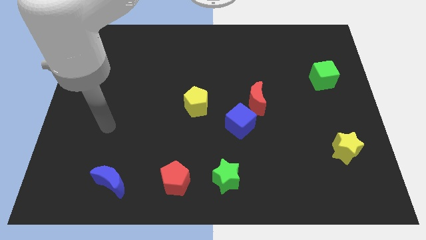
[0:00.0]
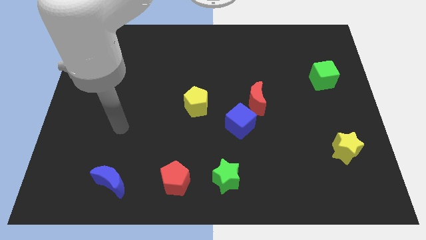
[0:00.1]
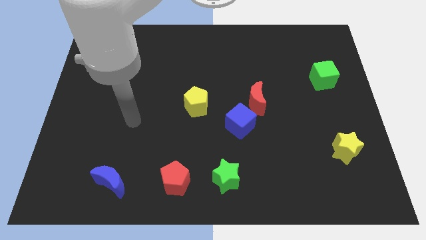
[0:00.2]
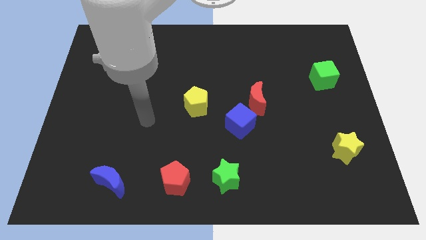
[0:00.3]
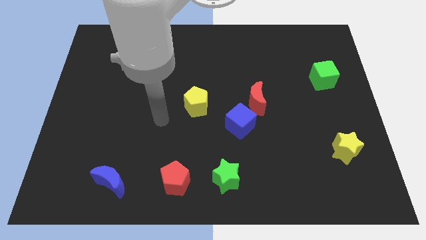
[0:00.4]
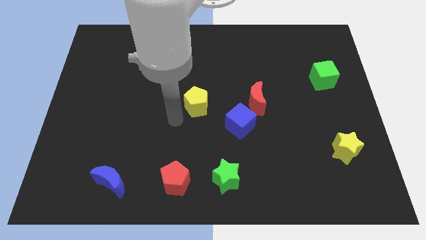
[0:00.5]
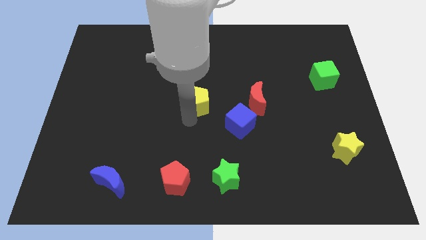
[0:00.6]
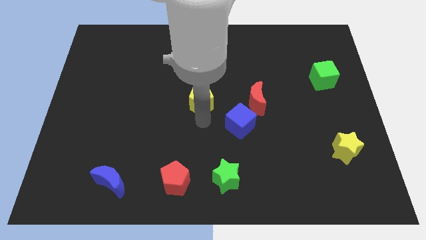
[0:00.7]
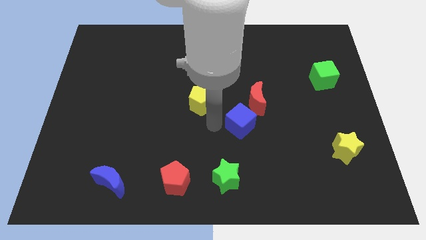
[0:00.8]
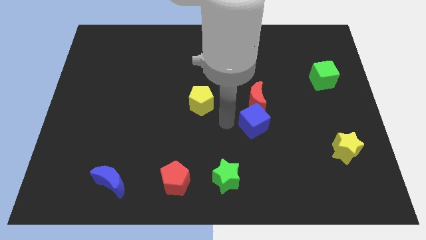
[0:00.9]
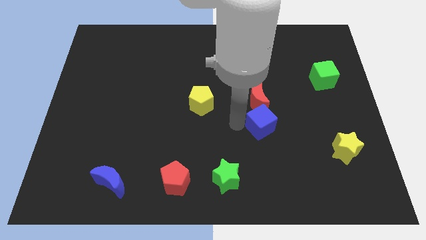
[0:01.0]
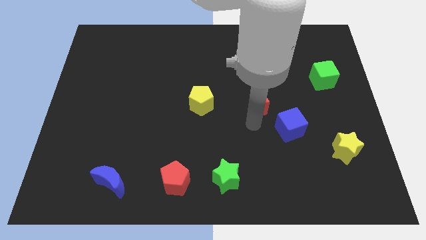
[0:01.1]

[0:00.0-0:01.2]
separate the red moon from the blue cube

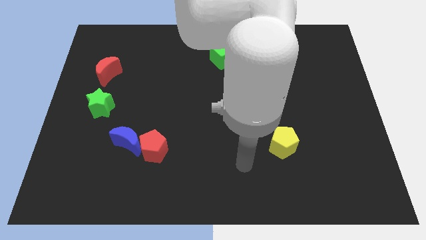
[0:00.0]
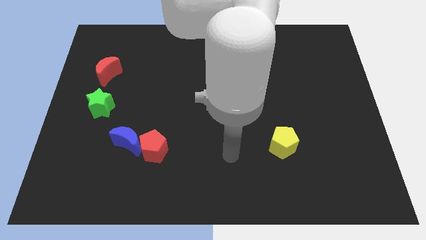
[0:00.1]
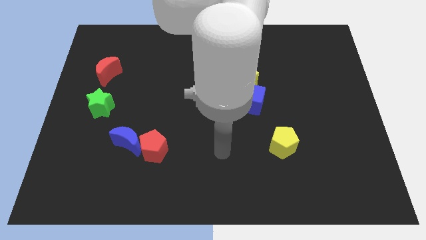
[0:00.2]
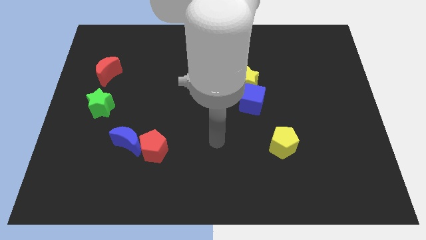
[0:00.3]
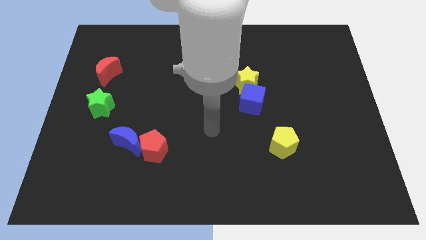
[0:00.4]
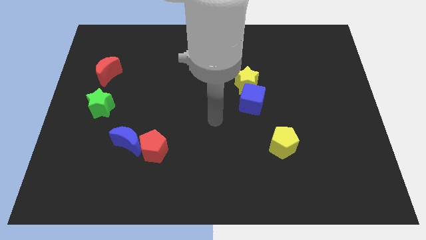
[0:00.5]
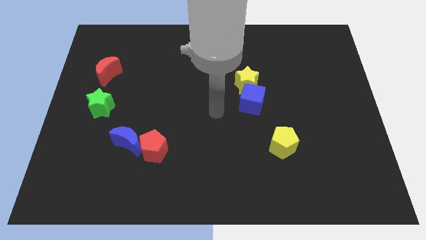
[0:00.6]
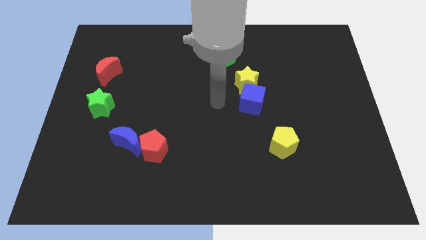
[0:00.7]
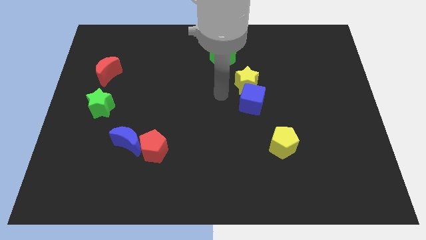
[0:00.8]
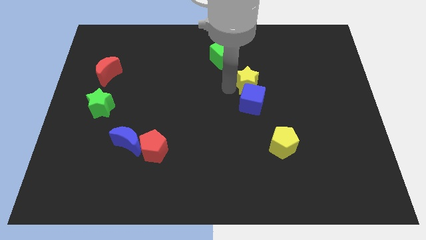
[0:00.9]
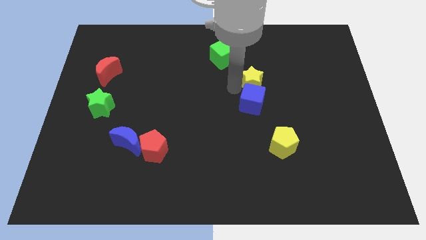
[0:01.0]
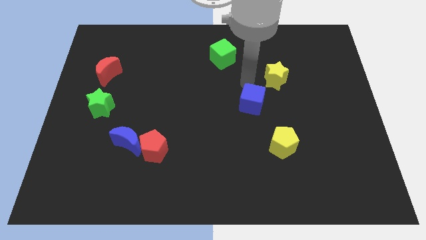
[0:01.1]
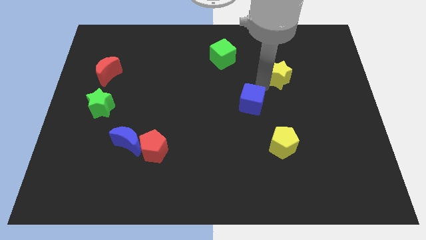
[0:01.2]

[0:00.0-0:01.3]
separate the blue cube from the yellow star

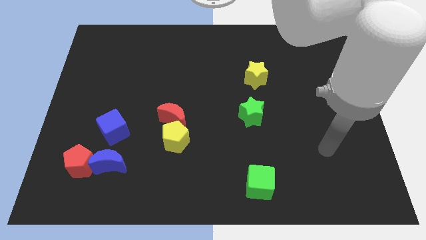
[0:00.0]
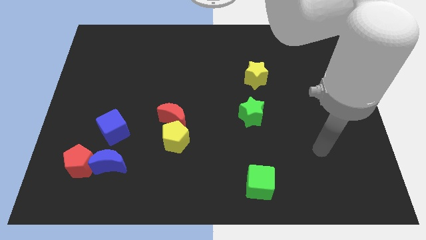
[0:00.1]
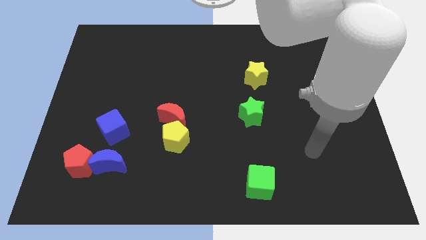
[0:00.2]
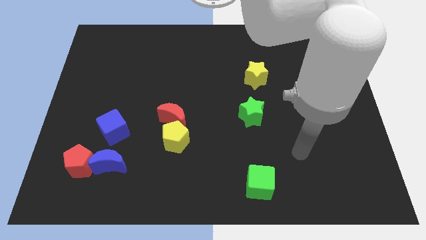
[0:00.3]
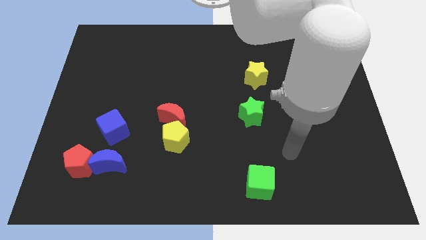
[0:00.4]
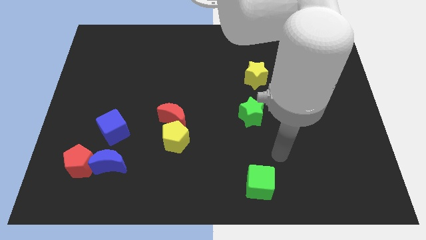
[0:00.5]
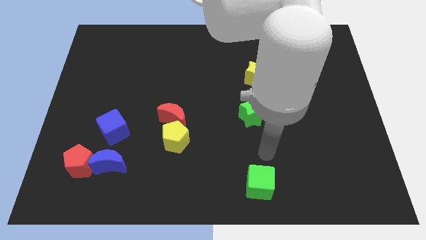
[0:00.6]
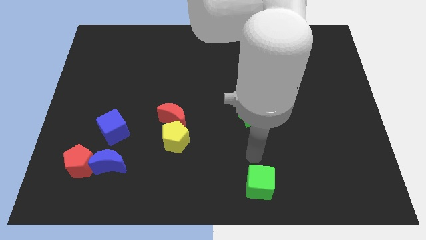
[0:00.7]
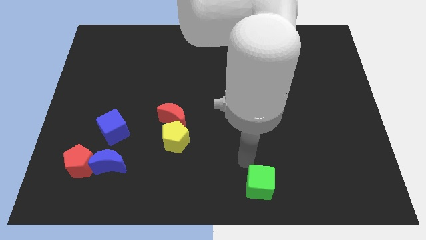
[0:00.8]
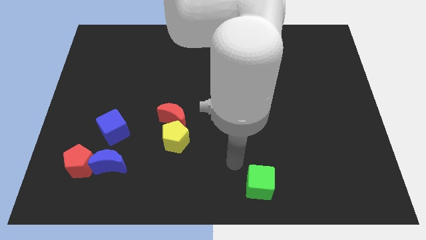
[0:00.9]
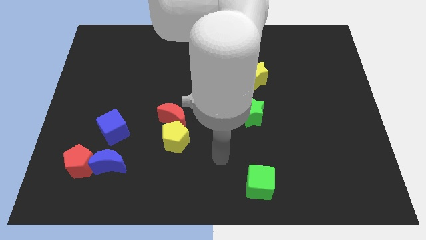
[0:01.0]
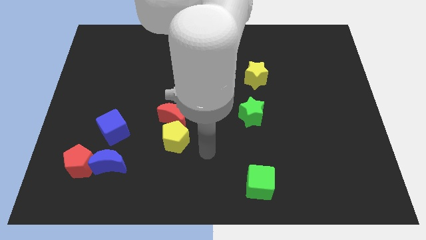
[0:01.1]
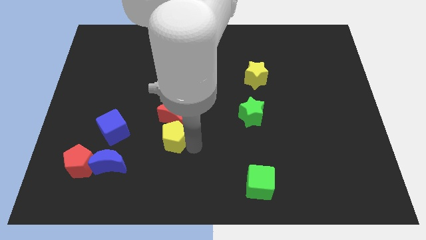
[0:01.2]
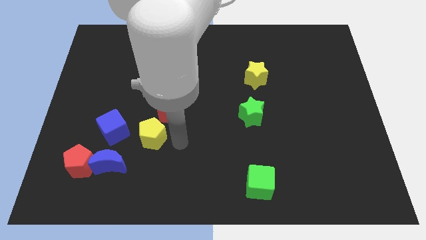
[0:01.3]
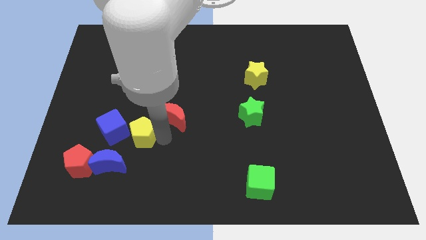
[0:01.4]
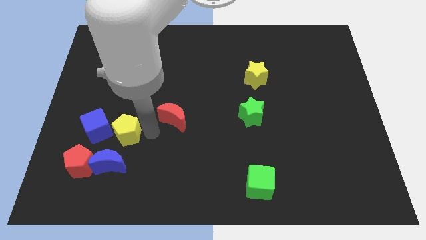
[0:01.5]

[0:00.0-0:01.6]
pull the red moon apart from the yellow pentagon

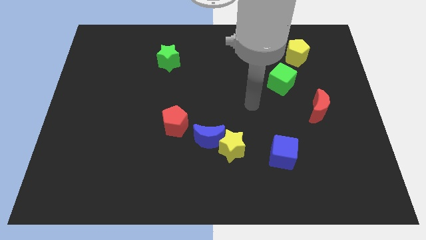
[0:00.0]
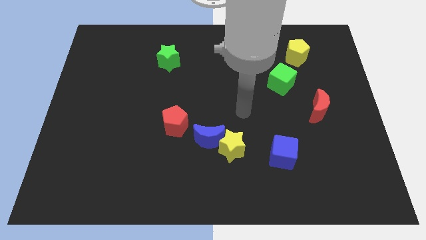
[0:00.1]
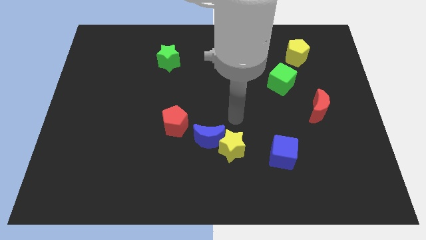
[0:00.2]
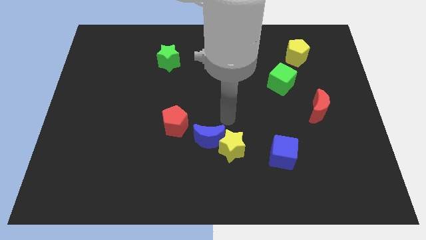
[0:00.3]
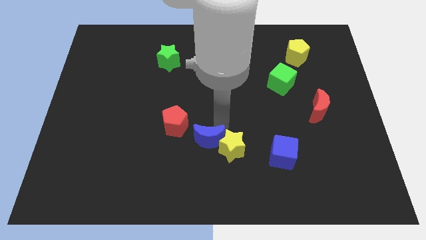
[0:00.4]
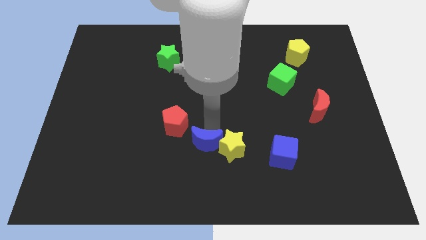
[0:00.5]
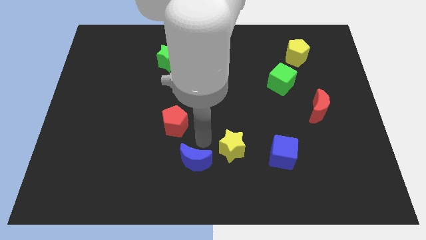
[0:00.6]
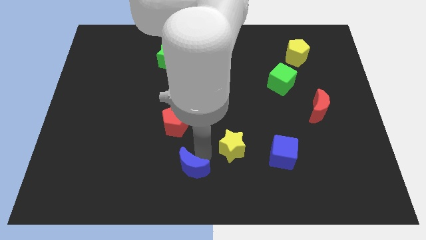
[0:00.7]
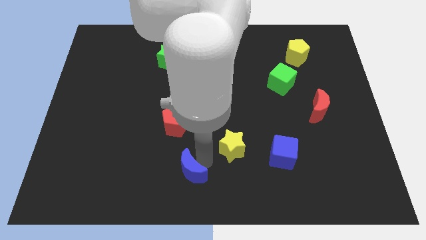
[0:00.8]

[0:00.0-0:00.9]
move the yellow star away from the blue moon

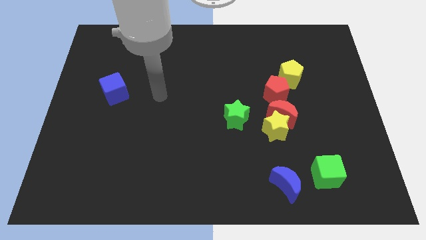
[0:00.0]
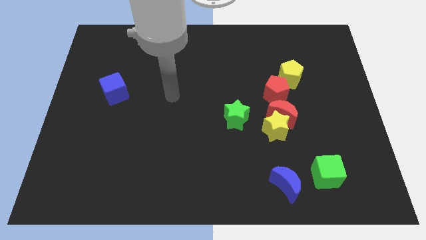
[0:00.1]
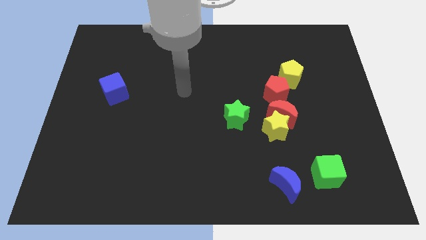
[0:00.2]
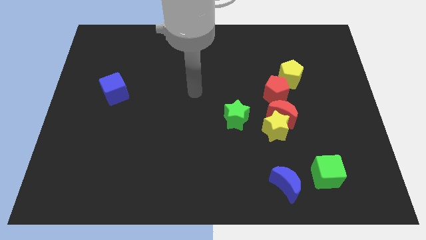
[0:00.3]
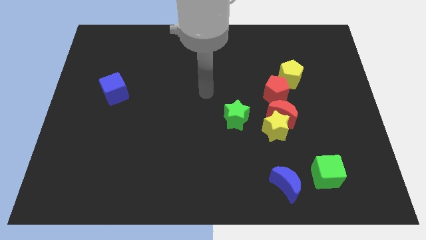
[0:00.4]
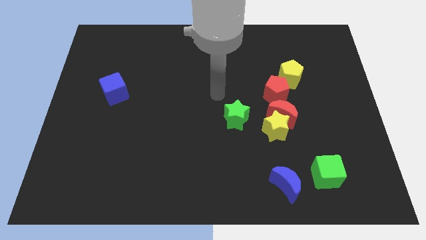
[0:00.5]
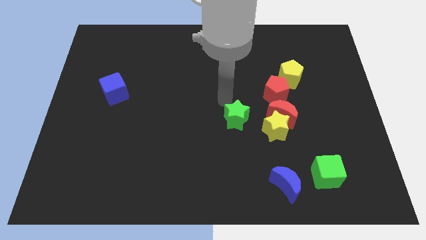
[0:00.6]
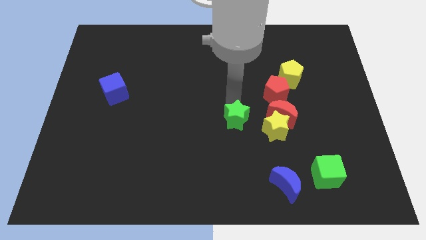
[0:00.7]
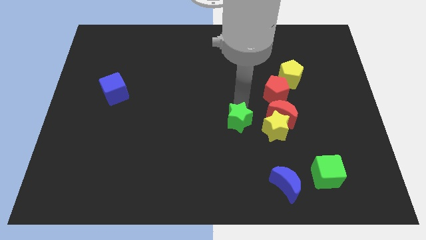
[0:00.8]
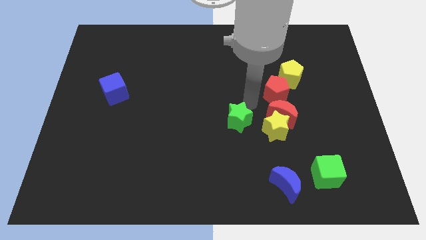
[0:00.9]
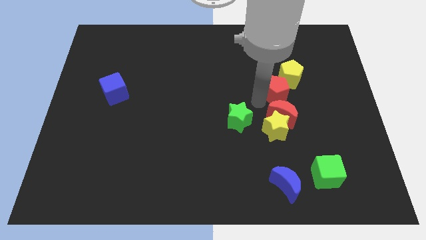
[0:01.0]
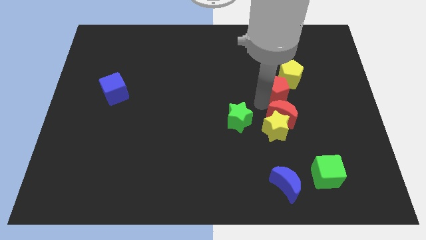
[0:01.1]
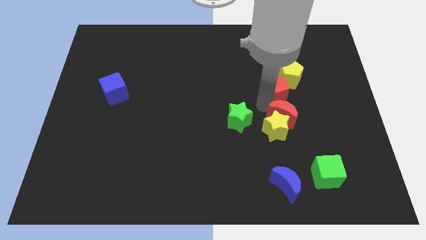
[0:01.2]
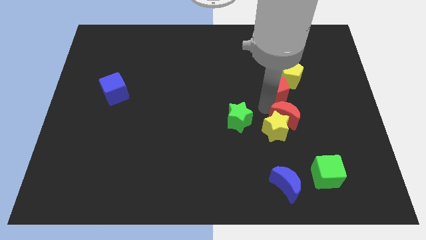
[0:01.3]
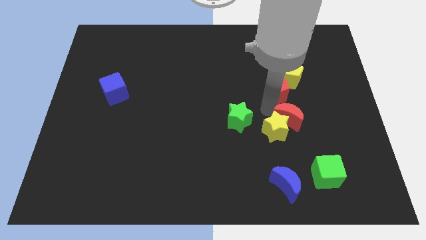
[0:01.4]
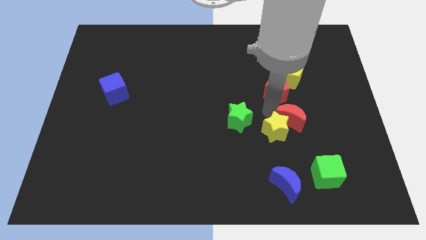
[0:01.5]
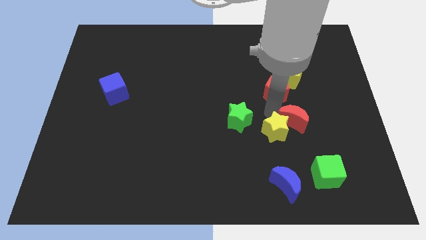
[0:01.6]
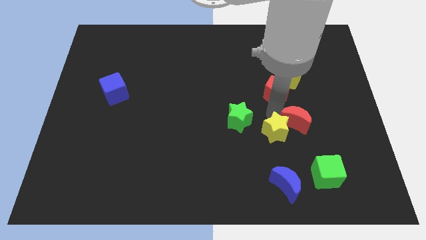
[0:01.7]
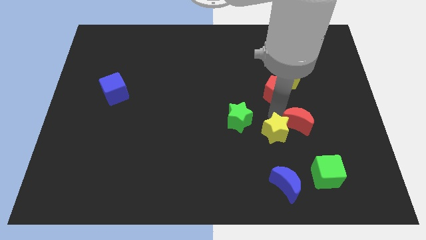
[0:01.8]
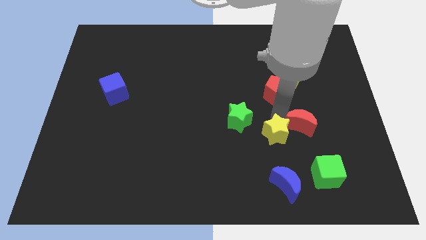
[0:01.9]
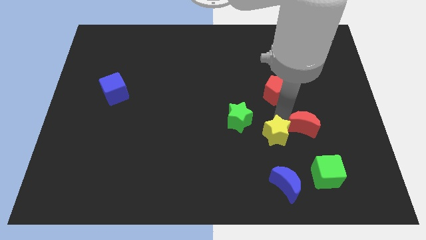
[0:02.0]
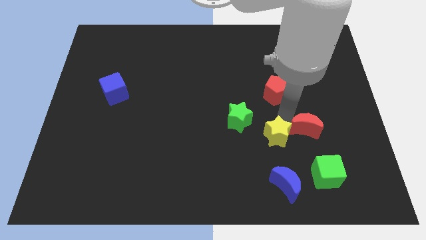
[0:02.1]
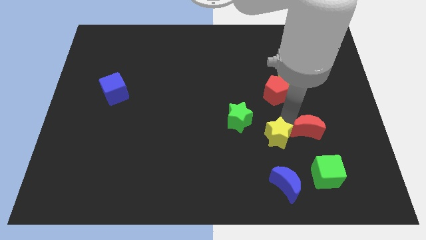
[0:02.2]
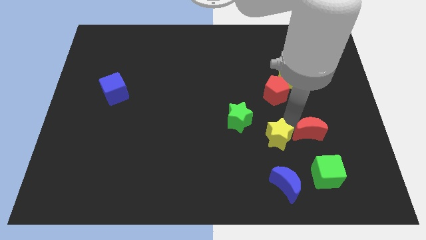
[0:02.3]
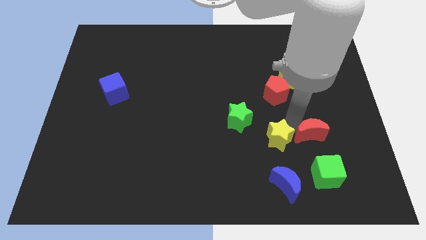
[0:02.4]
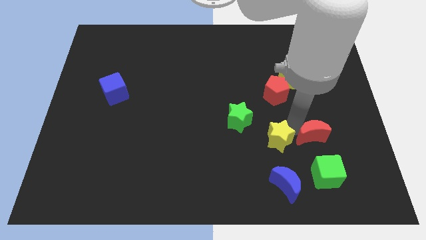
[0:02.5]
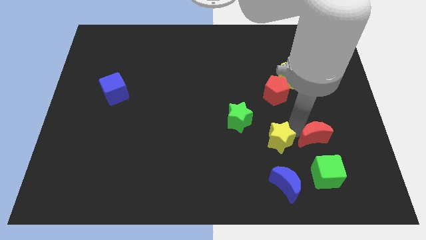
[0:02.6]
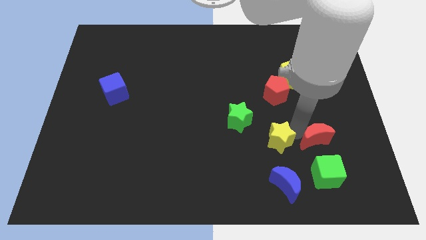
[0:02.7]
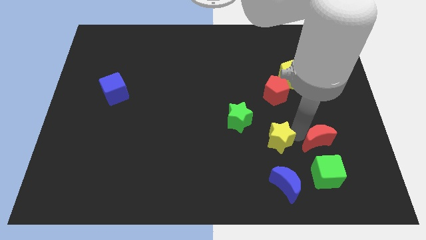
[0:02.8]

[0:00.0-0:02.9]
move the red moon away from the yellow star and red pentagon

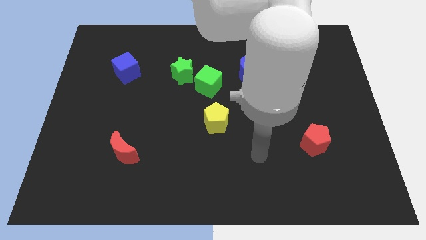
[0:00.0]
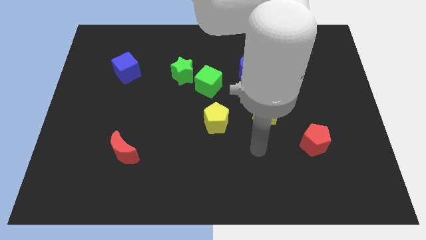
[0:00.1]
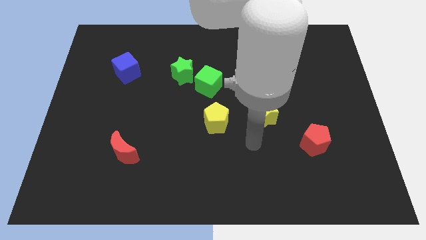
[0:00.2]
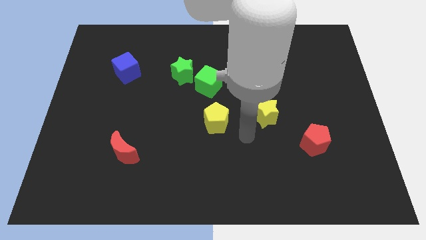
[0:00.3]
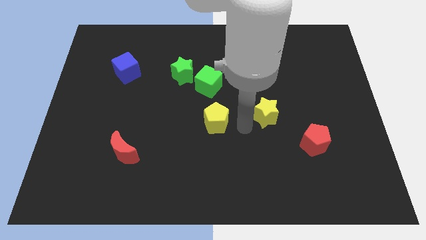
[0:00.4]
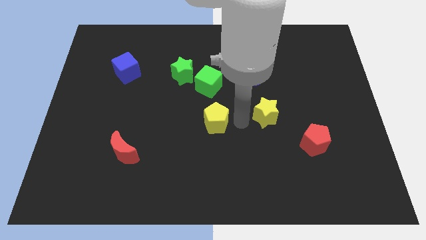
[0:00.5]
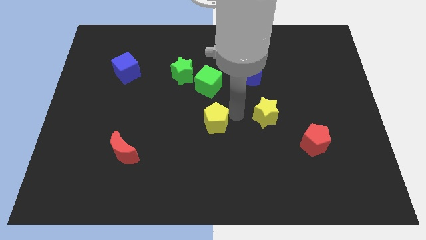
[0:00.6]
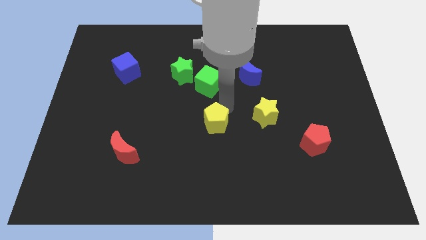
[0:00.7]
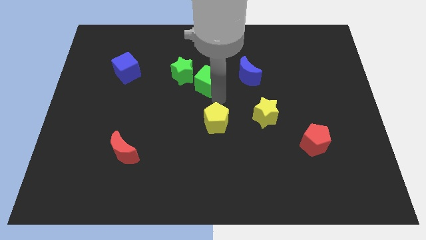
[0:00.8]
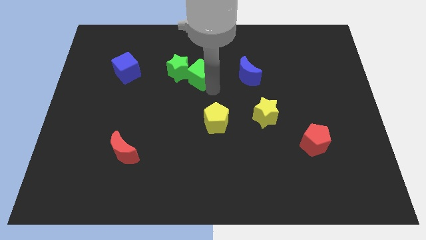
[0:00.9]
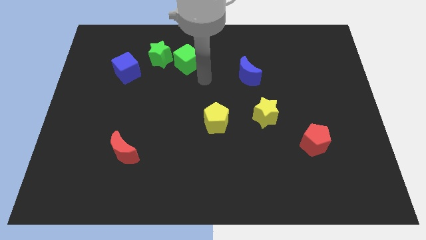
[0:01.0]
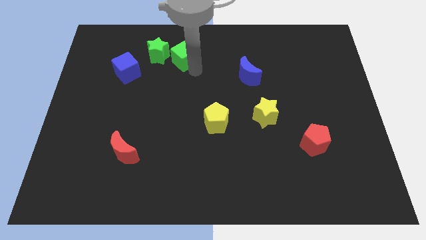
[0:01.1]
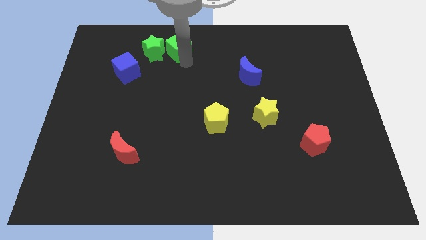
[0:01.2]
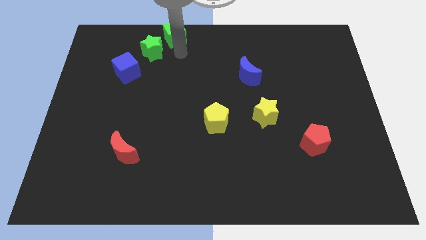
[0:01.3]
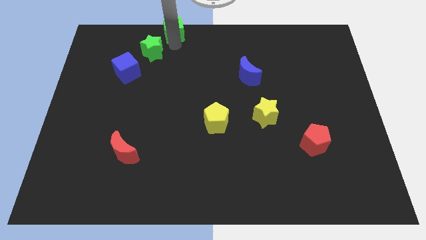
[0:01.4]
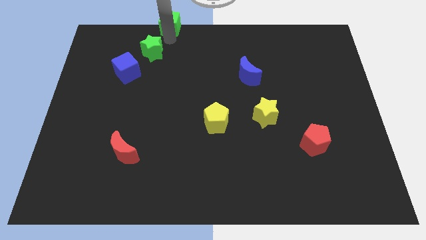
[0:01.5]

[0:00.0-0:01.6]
separate the green star from the green cube
